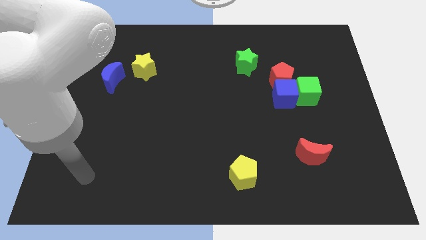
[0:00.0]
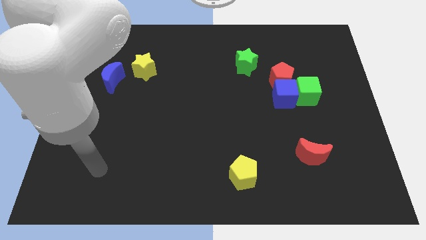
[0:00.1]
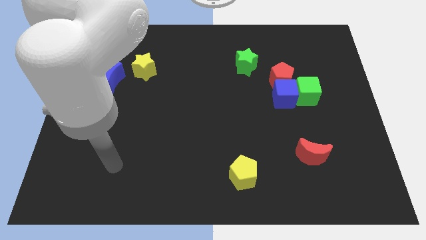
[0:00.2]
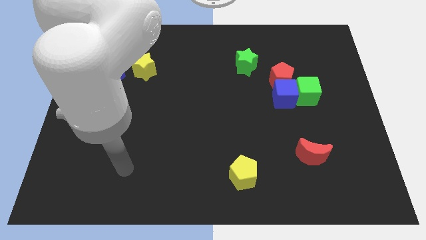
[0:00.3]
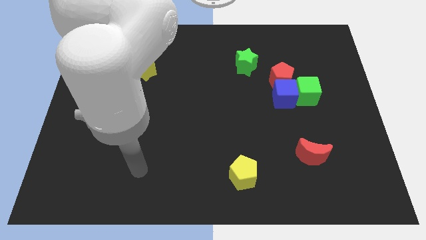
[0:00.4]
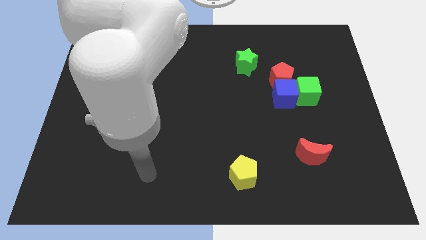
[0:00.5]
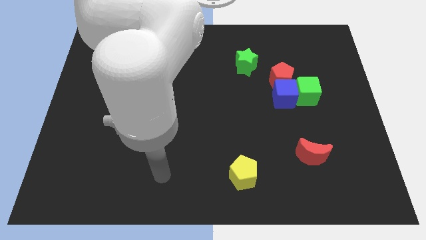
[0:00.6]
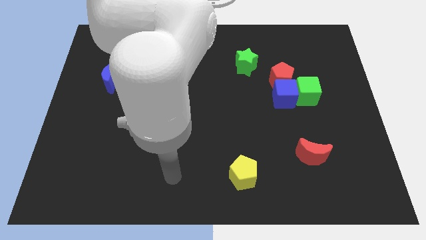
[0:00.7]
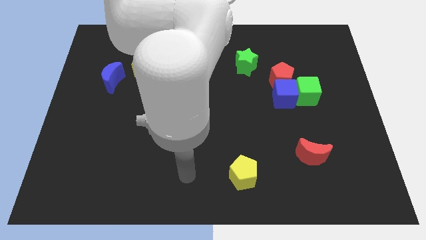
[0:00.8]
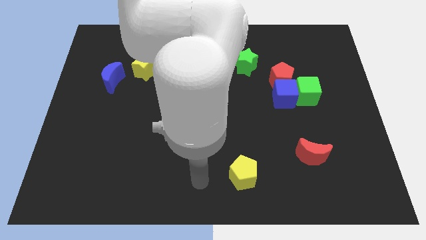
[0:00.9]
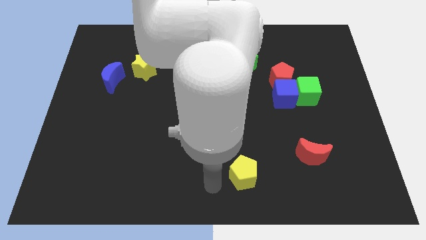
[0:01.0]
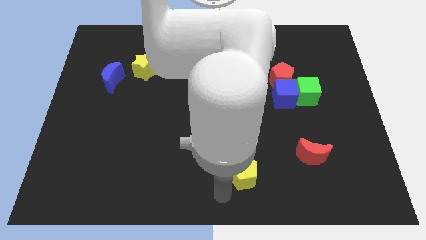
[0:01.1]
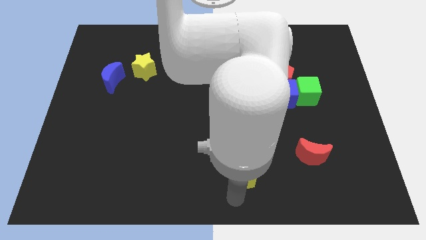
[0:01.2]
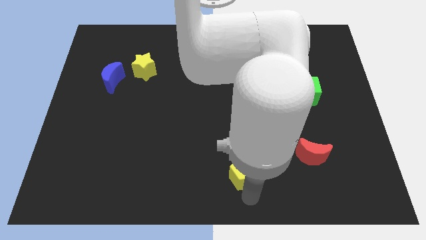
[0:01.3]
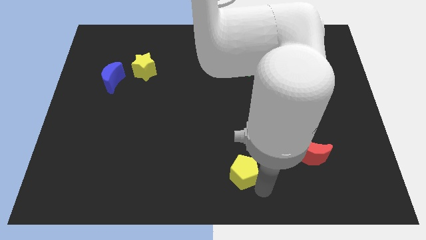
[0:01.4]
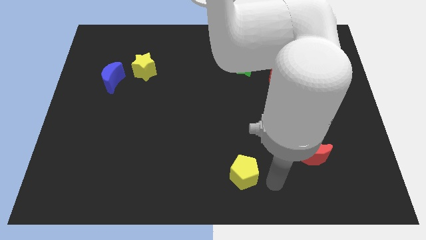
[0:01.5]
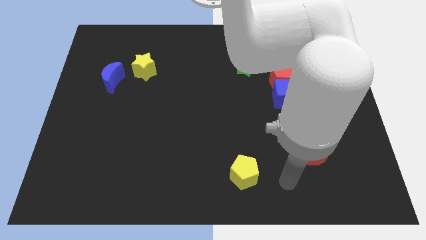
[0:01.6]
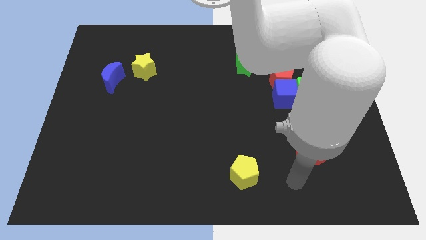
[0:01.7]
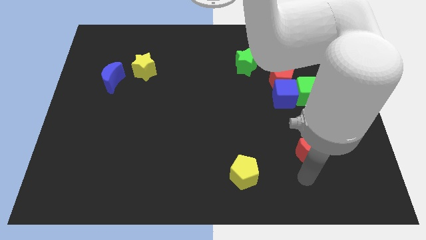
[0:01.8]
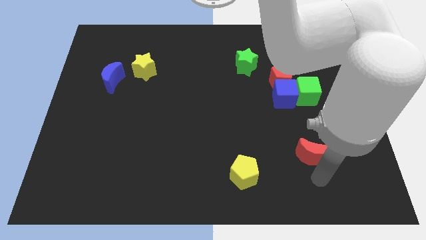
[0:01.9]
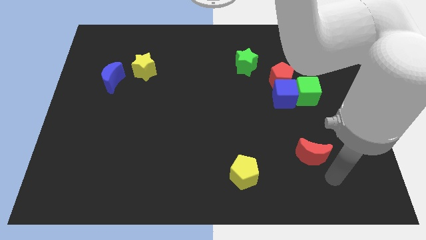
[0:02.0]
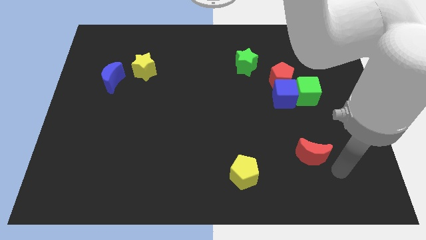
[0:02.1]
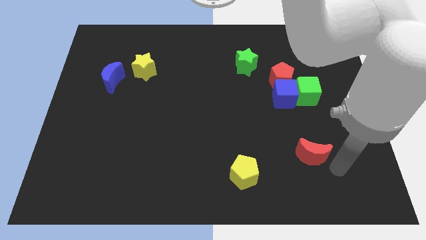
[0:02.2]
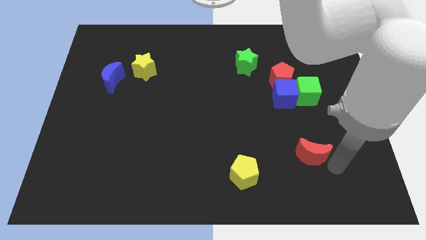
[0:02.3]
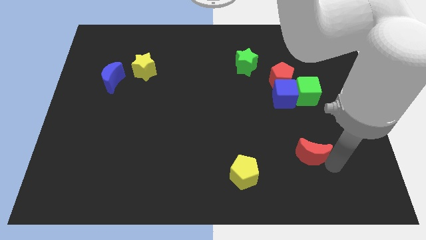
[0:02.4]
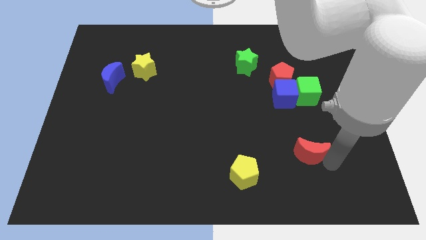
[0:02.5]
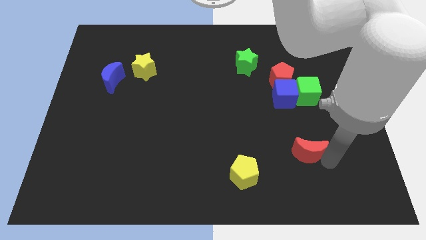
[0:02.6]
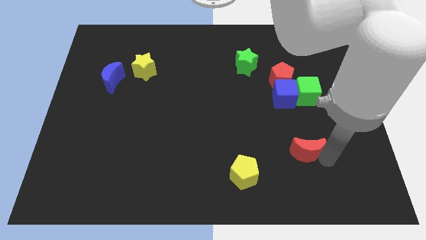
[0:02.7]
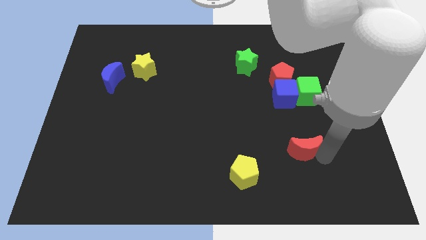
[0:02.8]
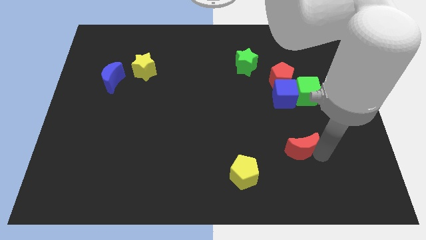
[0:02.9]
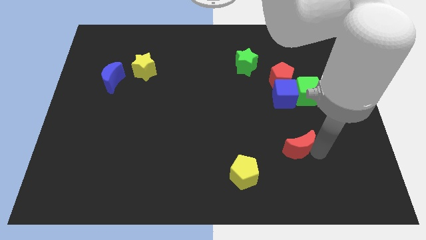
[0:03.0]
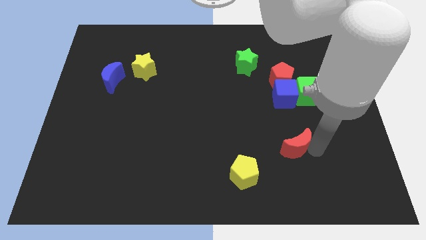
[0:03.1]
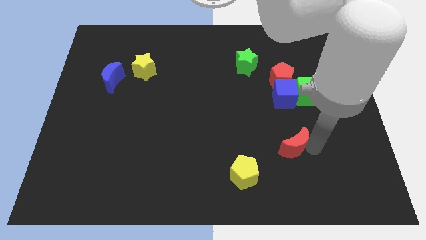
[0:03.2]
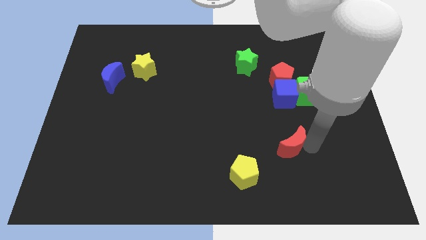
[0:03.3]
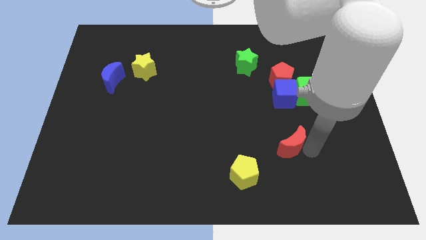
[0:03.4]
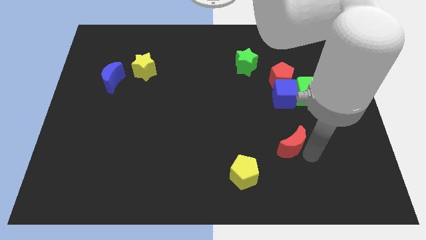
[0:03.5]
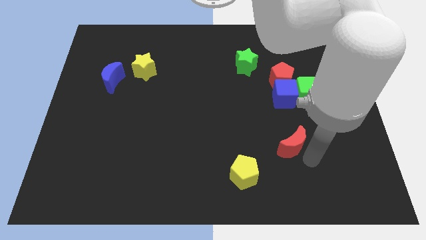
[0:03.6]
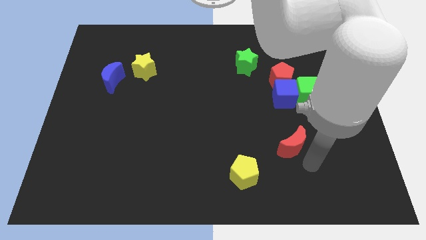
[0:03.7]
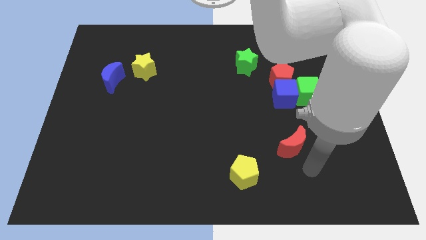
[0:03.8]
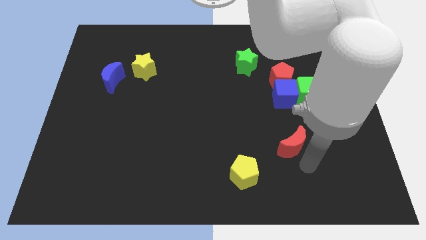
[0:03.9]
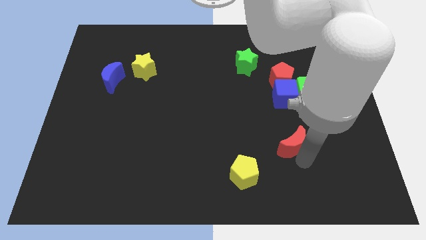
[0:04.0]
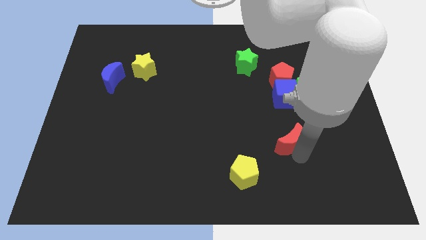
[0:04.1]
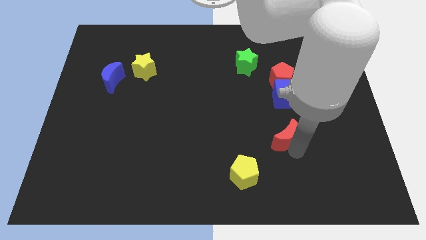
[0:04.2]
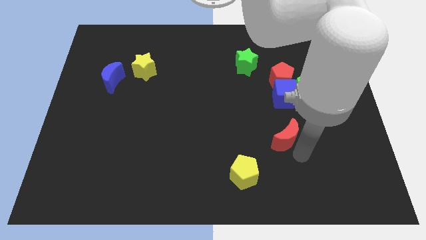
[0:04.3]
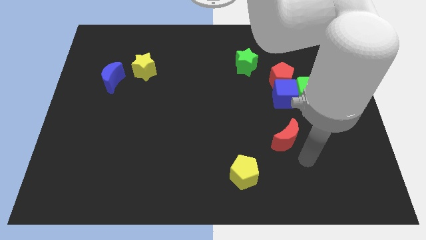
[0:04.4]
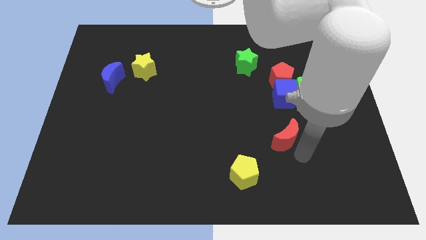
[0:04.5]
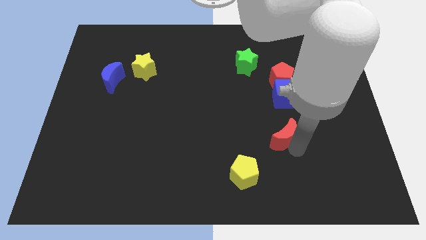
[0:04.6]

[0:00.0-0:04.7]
push the red moon up and then to the left a little

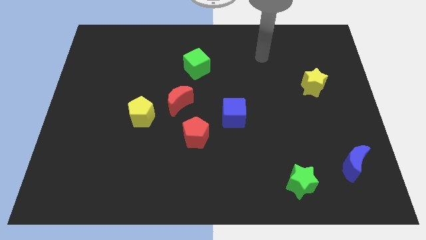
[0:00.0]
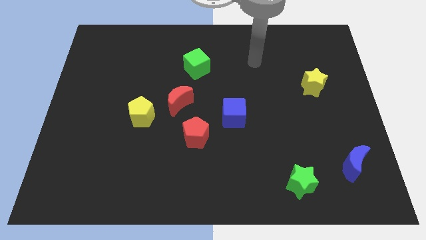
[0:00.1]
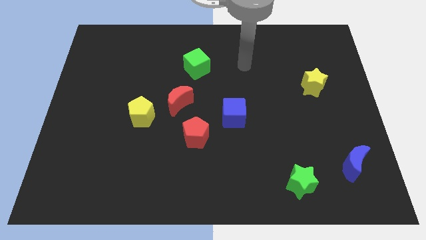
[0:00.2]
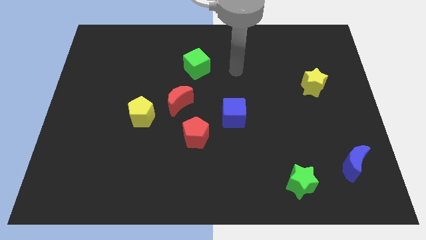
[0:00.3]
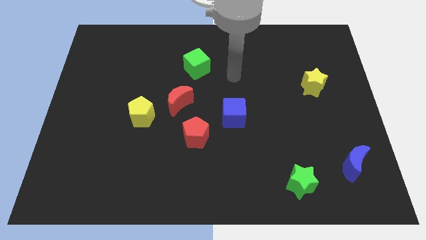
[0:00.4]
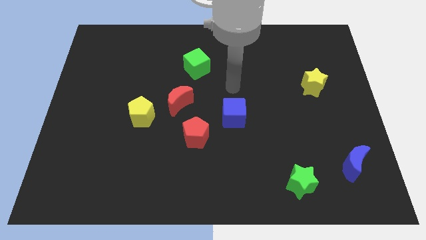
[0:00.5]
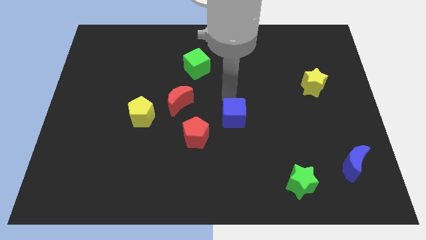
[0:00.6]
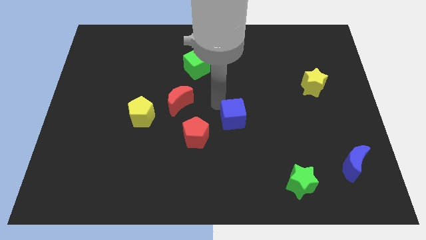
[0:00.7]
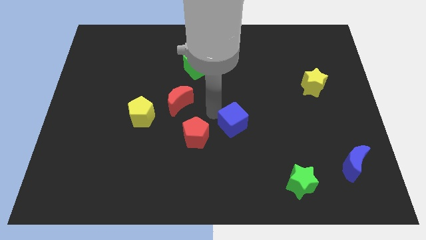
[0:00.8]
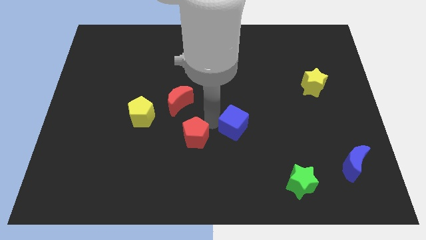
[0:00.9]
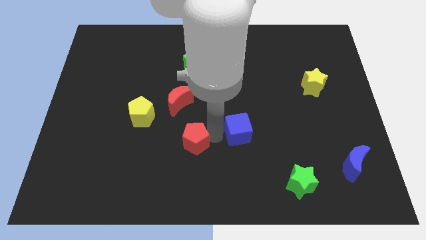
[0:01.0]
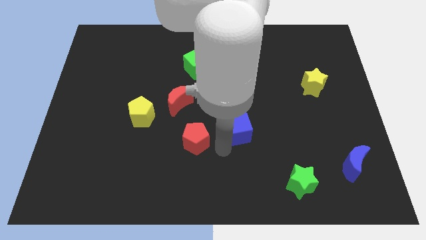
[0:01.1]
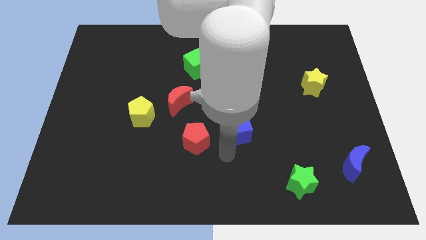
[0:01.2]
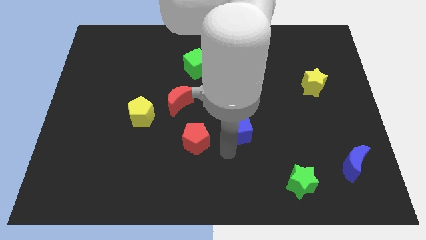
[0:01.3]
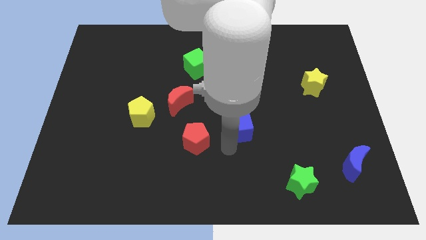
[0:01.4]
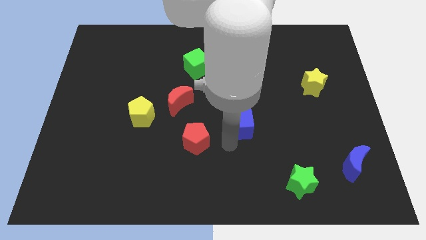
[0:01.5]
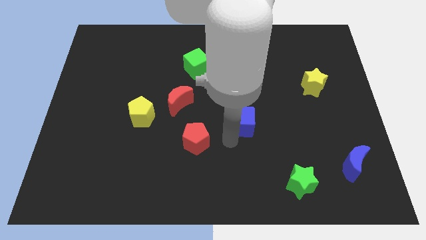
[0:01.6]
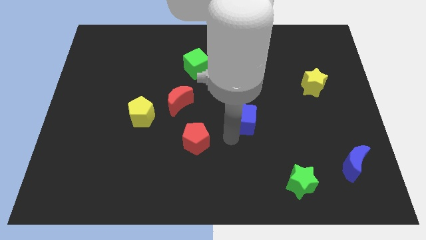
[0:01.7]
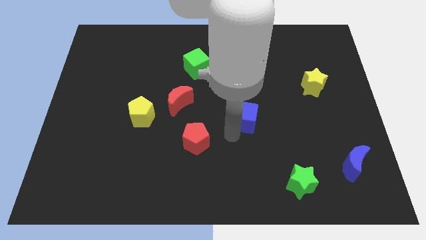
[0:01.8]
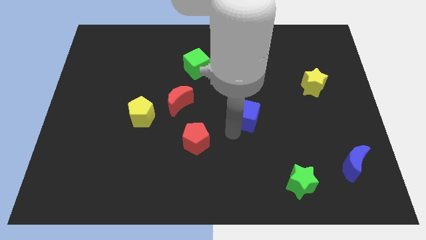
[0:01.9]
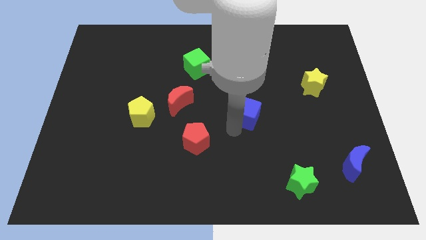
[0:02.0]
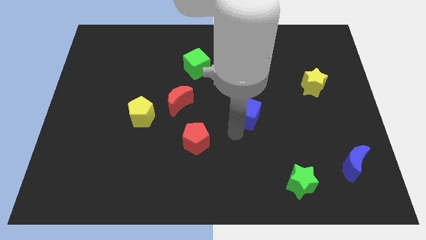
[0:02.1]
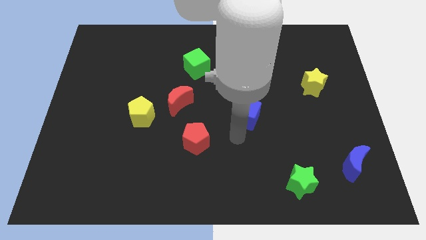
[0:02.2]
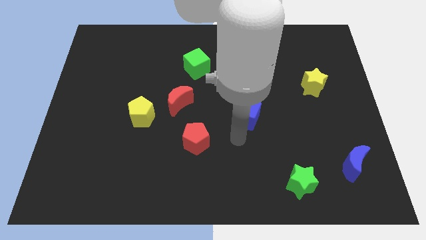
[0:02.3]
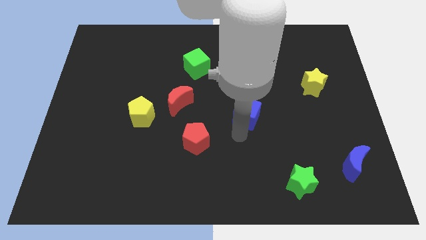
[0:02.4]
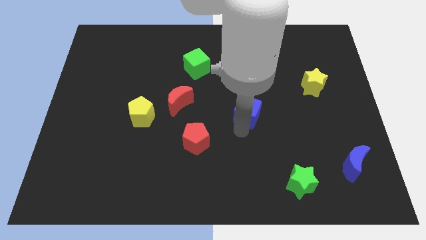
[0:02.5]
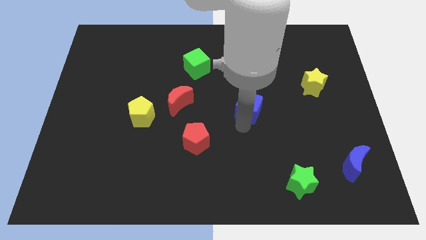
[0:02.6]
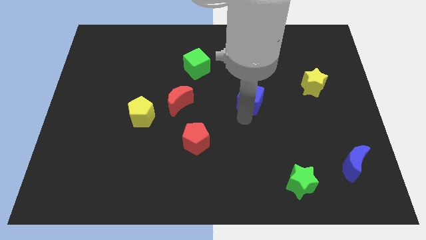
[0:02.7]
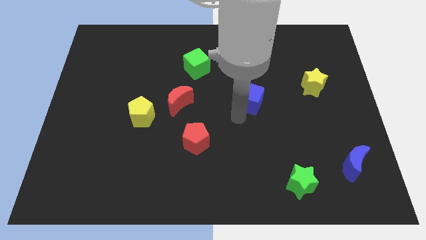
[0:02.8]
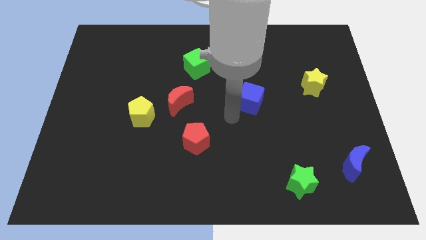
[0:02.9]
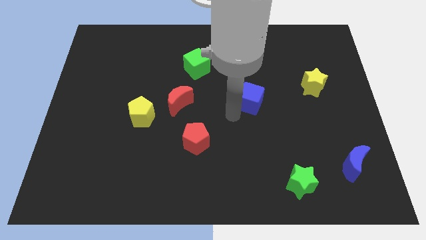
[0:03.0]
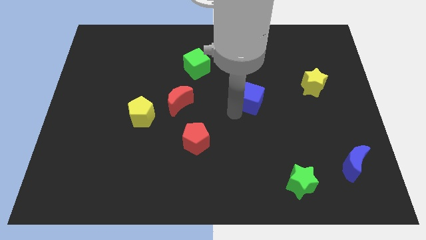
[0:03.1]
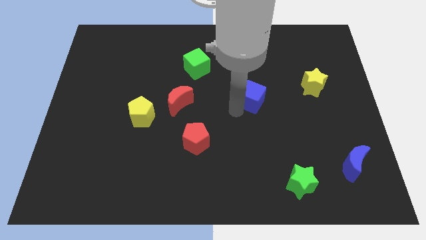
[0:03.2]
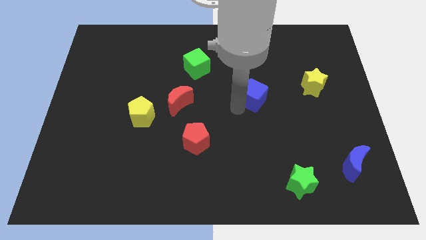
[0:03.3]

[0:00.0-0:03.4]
push the blue cube up and to the right somewhat
